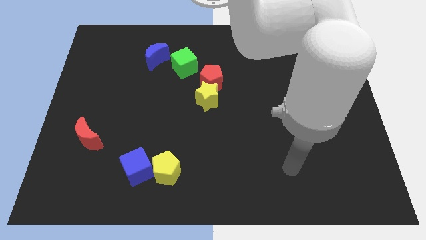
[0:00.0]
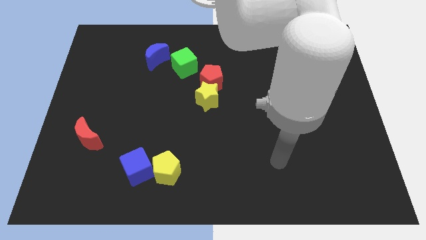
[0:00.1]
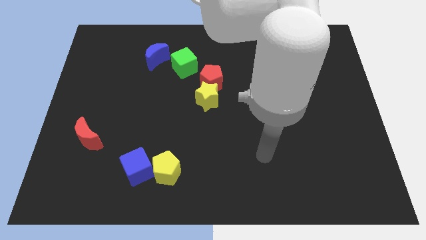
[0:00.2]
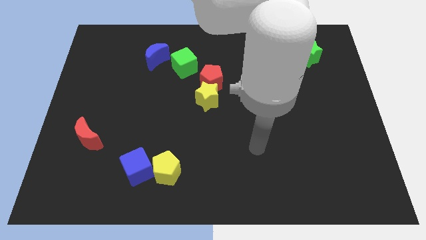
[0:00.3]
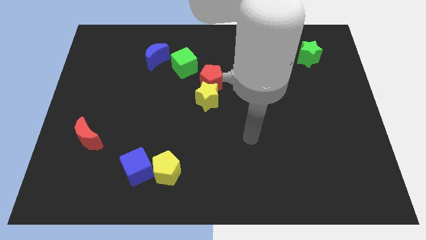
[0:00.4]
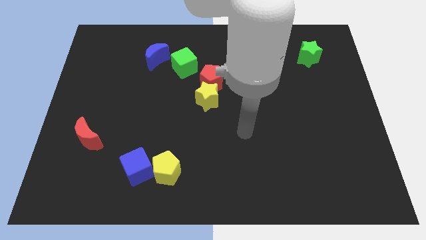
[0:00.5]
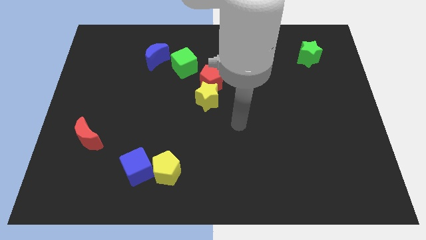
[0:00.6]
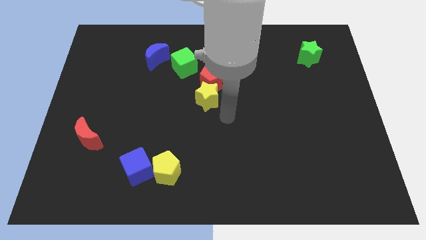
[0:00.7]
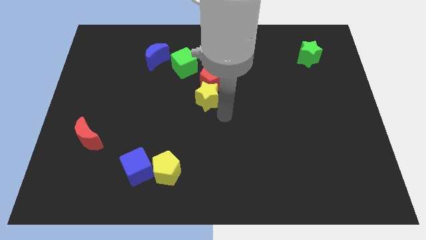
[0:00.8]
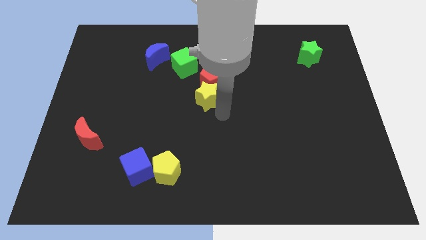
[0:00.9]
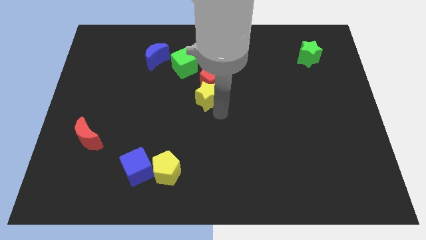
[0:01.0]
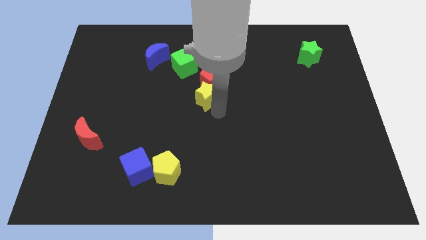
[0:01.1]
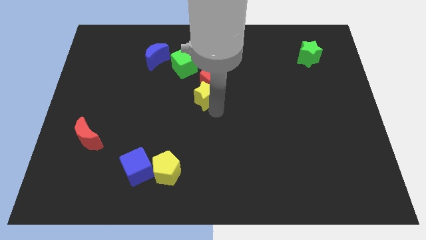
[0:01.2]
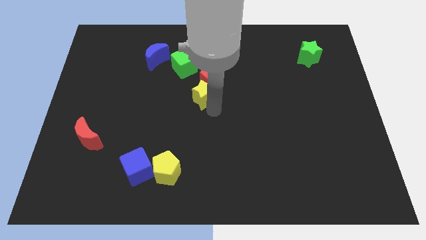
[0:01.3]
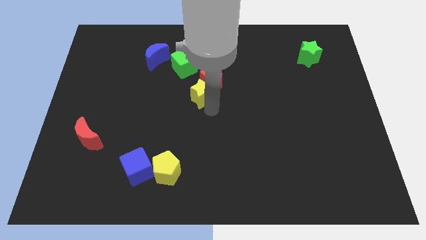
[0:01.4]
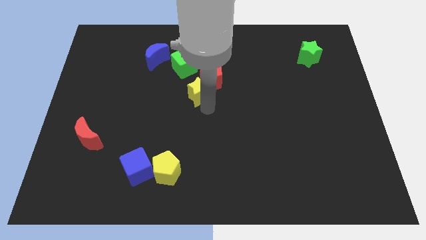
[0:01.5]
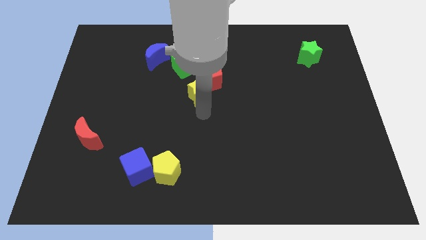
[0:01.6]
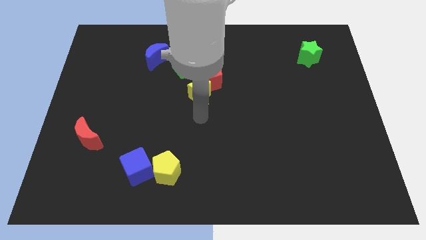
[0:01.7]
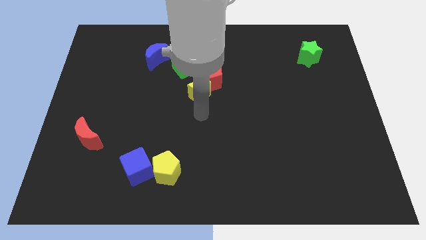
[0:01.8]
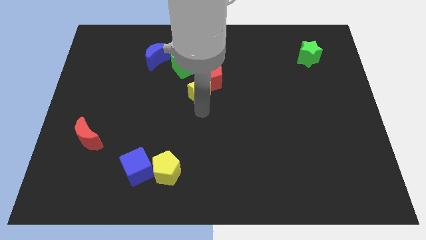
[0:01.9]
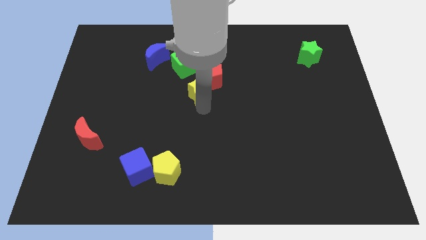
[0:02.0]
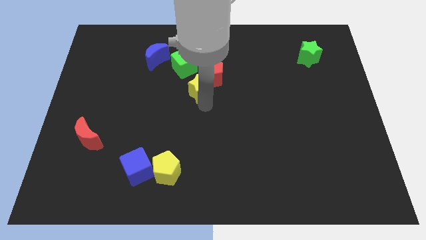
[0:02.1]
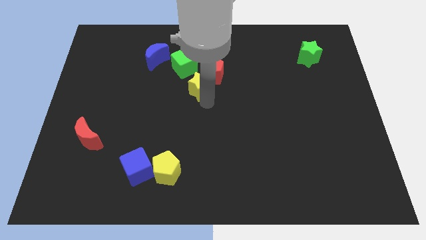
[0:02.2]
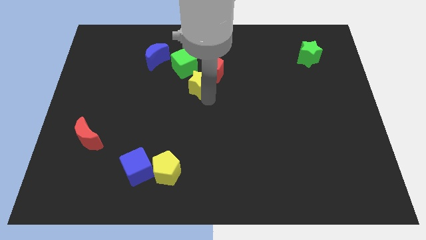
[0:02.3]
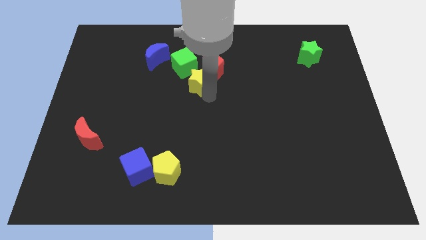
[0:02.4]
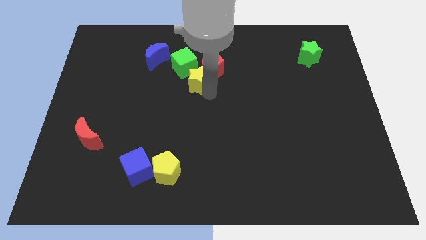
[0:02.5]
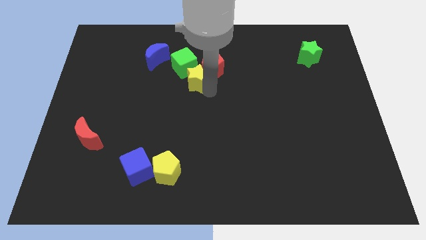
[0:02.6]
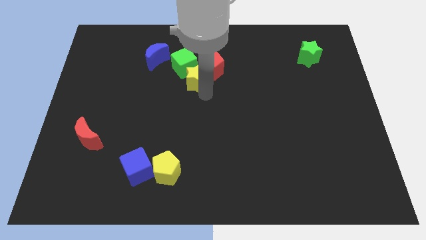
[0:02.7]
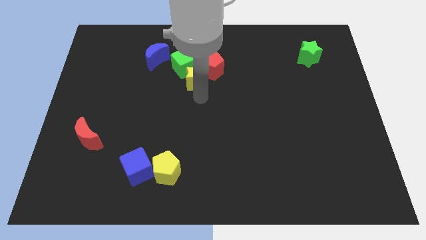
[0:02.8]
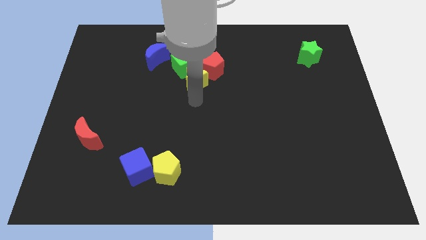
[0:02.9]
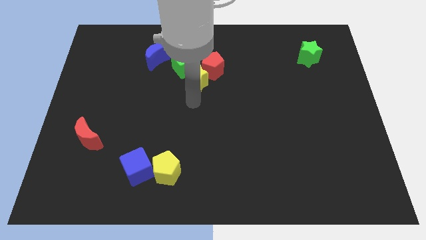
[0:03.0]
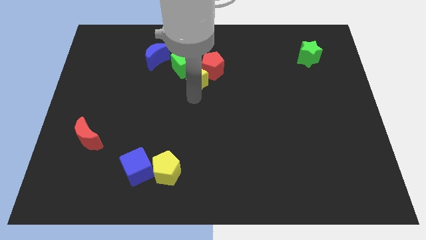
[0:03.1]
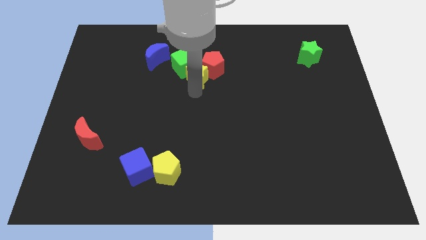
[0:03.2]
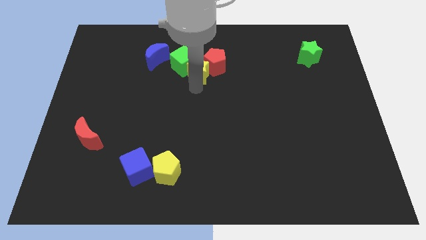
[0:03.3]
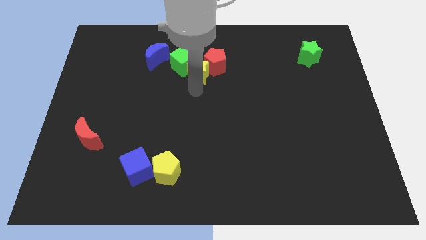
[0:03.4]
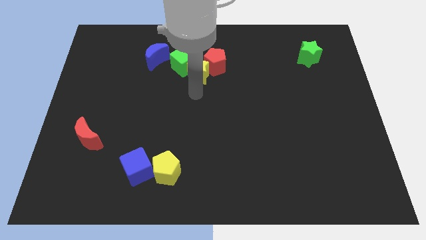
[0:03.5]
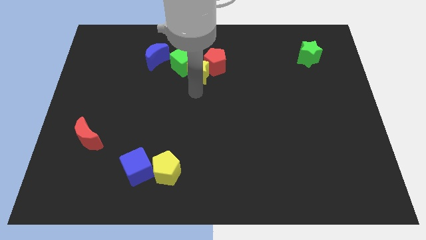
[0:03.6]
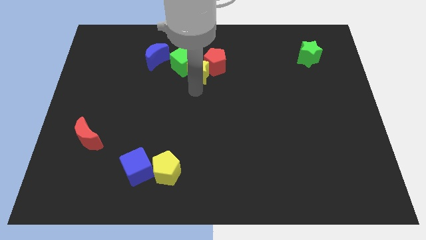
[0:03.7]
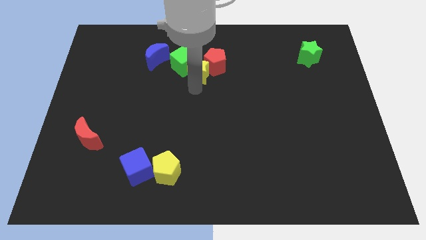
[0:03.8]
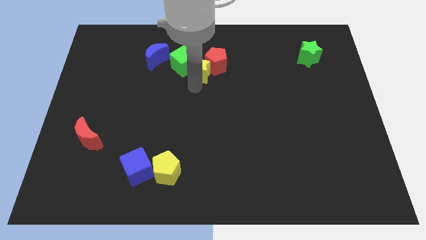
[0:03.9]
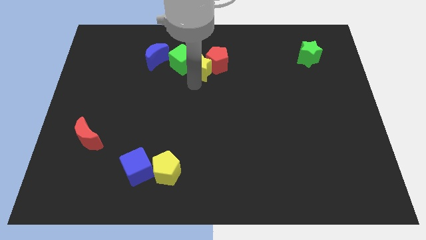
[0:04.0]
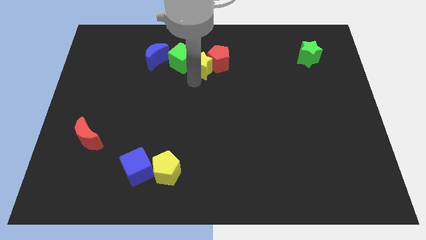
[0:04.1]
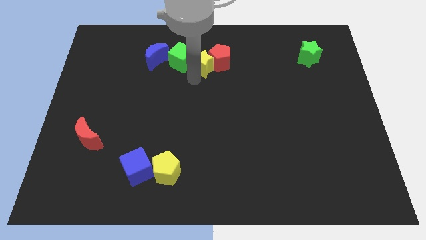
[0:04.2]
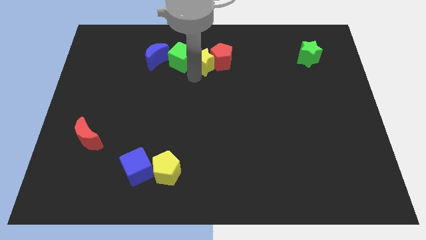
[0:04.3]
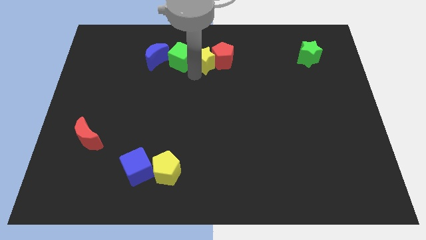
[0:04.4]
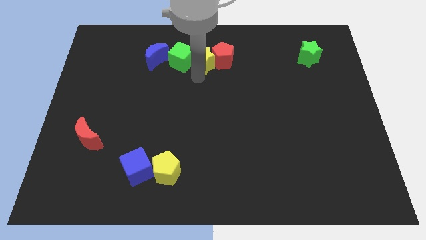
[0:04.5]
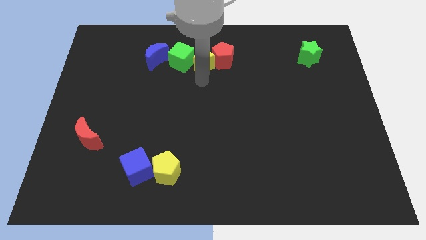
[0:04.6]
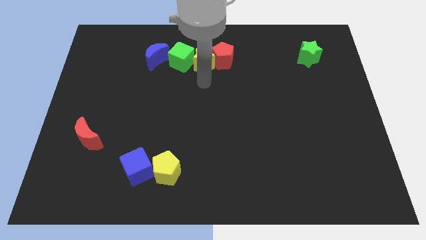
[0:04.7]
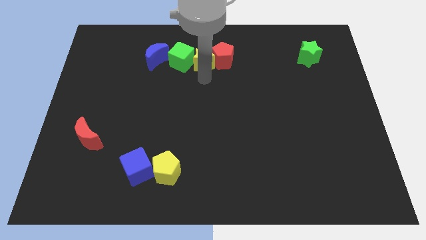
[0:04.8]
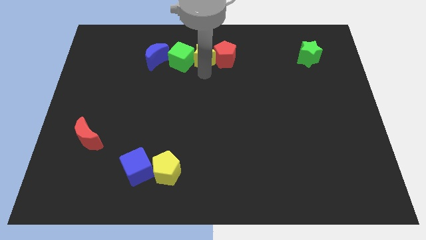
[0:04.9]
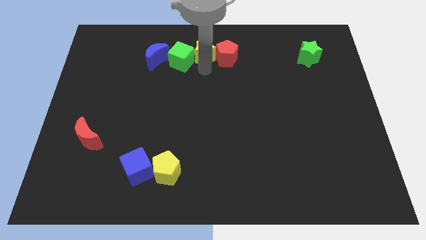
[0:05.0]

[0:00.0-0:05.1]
slide the yellow star to the top
